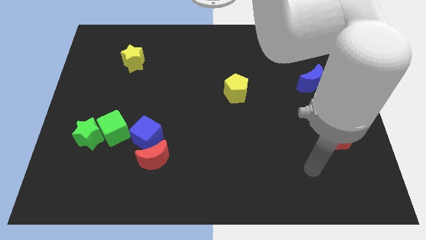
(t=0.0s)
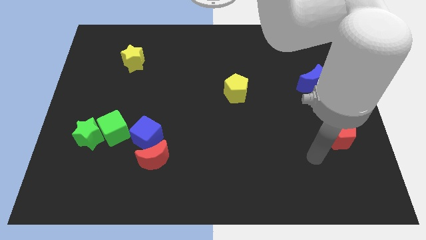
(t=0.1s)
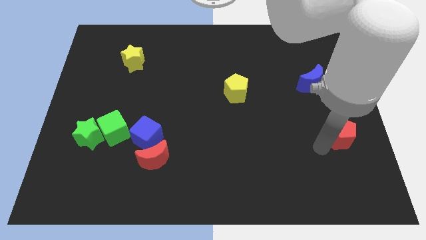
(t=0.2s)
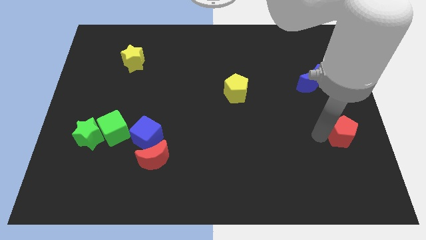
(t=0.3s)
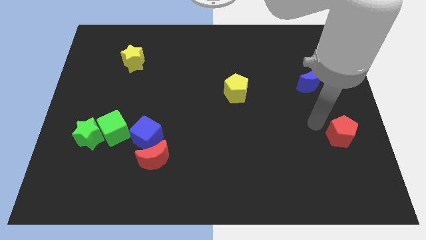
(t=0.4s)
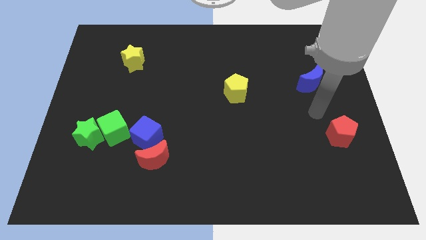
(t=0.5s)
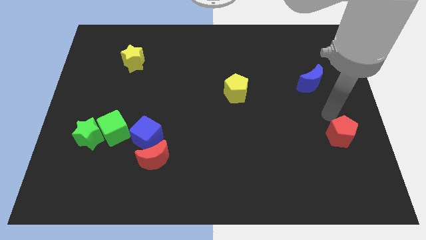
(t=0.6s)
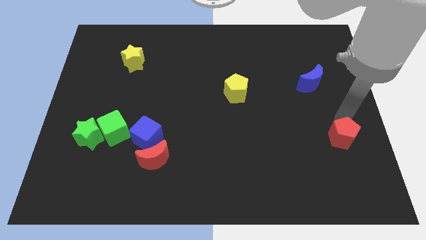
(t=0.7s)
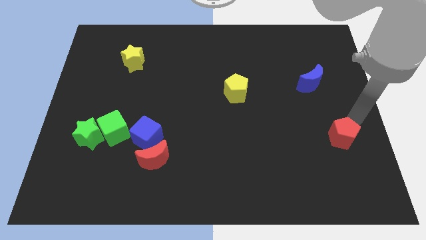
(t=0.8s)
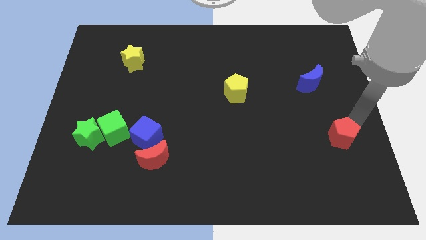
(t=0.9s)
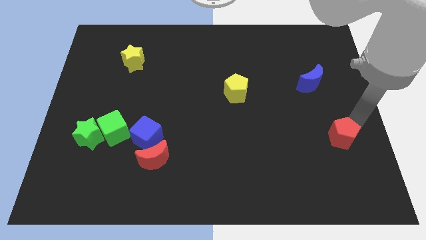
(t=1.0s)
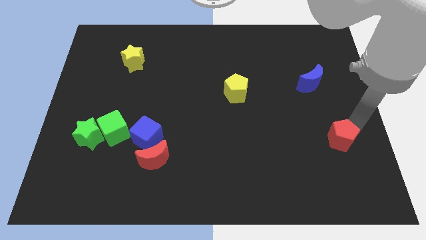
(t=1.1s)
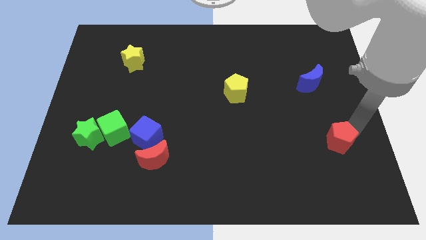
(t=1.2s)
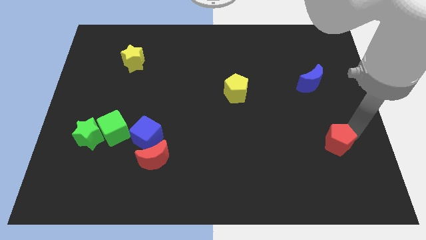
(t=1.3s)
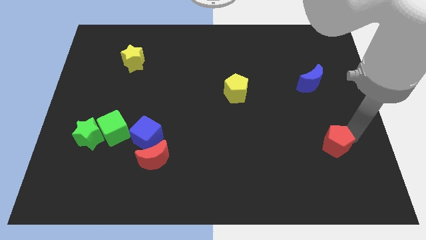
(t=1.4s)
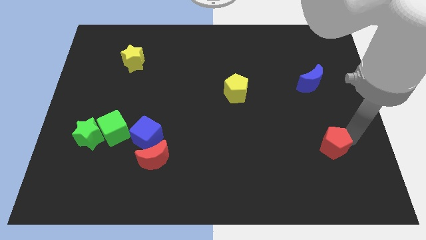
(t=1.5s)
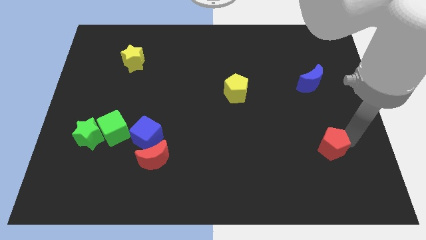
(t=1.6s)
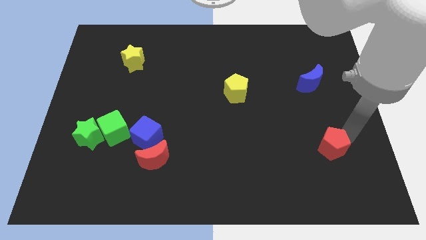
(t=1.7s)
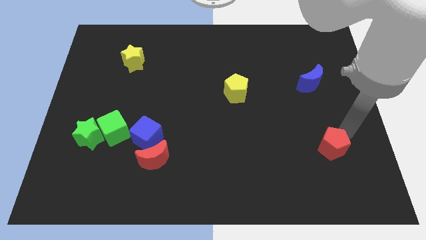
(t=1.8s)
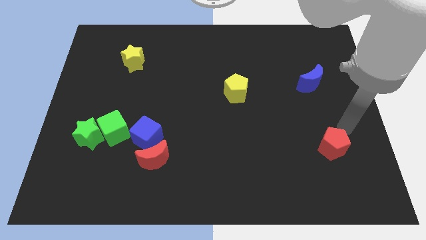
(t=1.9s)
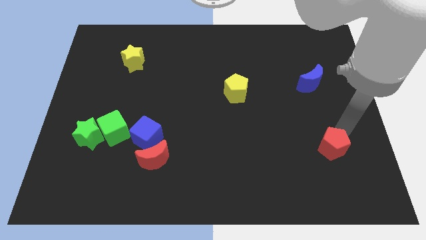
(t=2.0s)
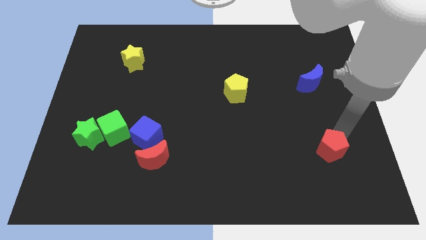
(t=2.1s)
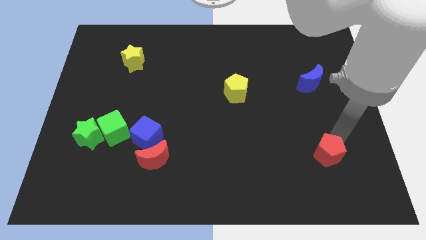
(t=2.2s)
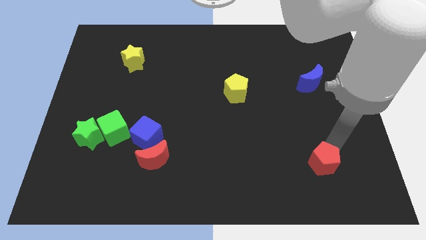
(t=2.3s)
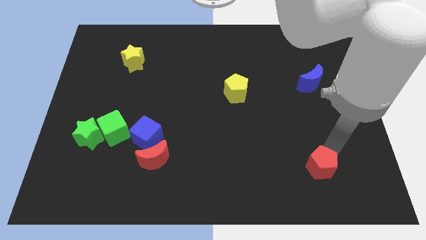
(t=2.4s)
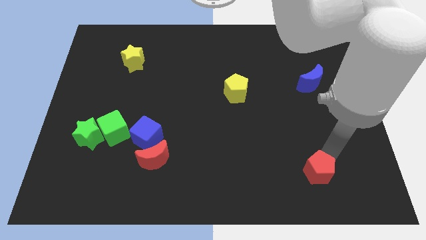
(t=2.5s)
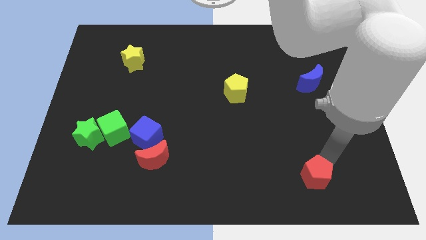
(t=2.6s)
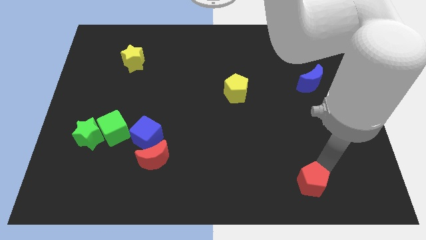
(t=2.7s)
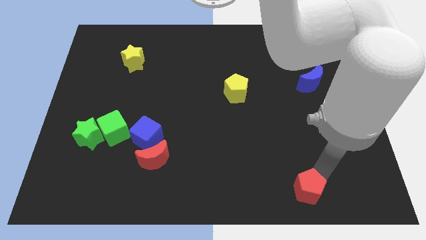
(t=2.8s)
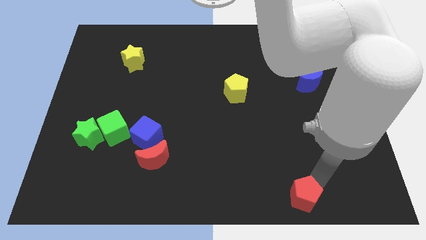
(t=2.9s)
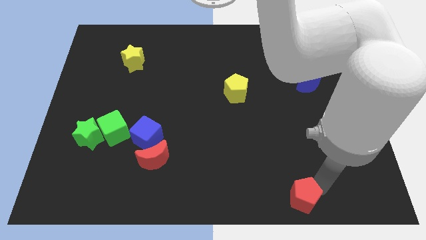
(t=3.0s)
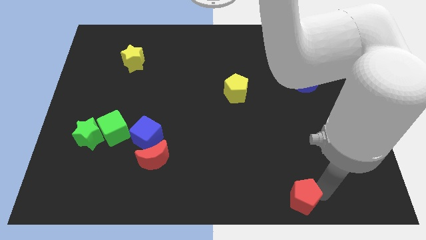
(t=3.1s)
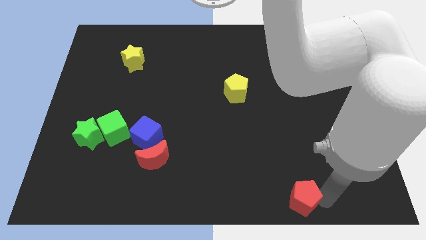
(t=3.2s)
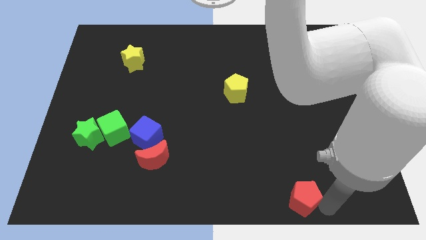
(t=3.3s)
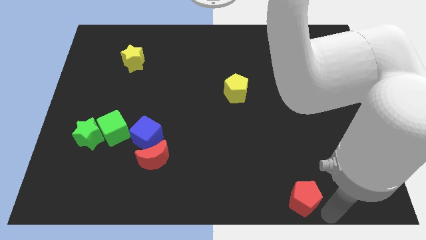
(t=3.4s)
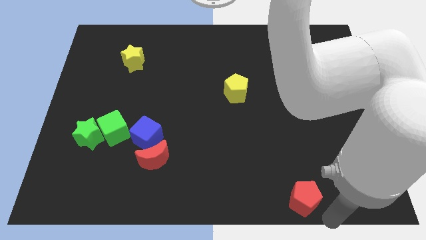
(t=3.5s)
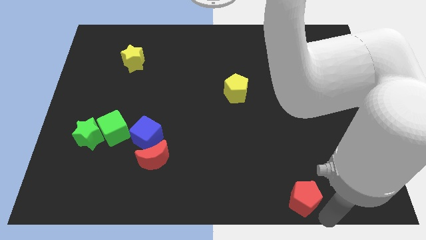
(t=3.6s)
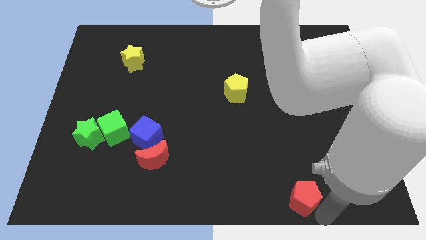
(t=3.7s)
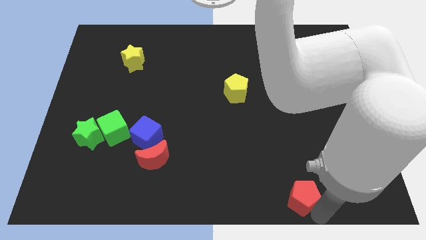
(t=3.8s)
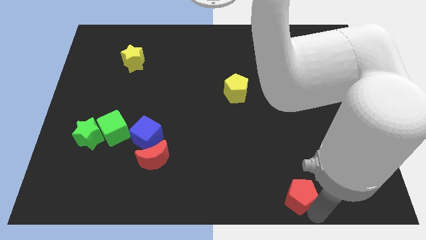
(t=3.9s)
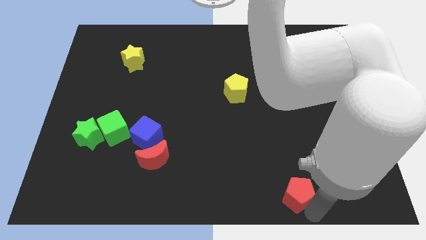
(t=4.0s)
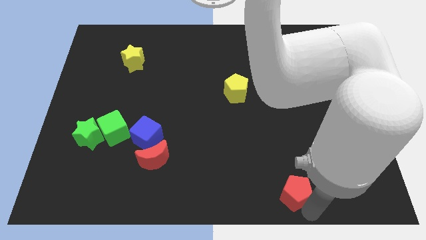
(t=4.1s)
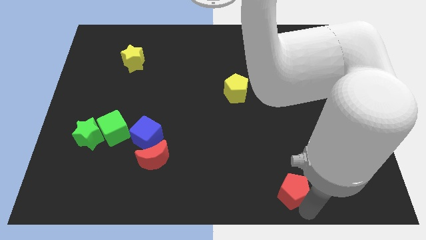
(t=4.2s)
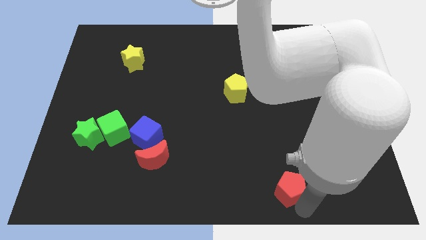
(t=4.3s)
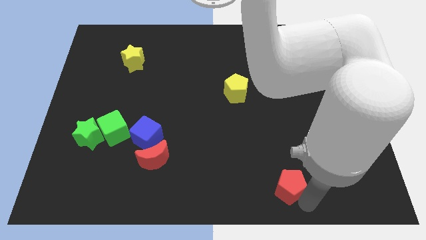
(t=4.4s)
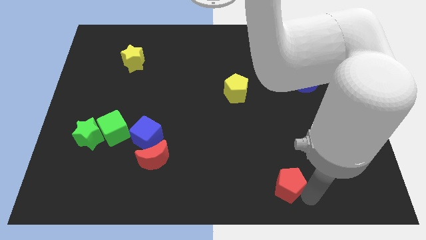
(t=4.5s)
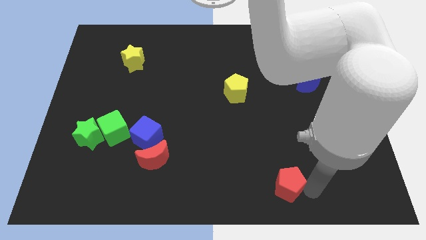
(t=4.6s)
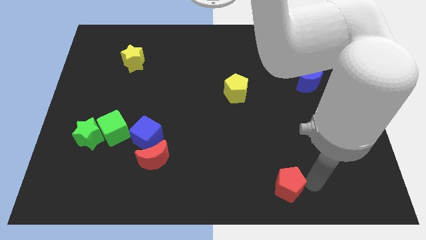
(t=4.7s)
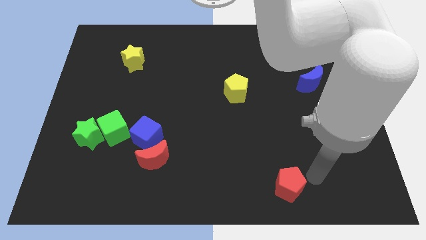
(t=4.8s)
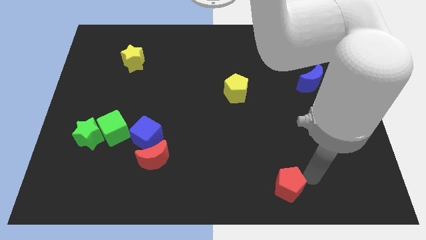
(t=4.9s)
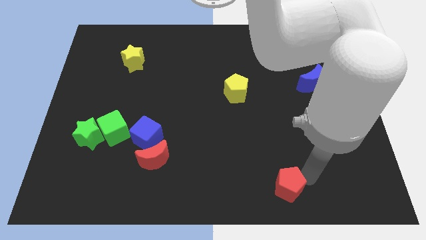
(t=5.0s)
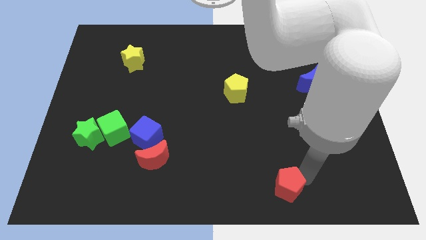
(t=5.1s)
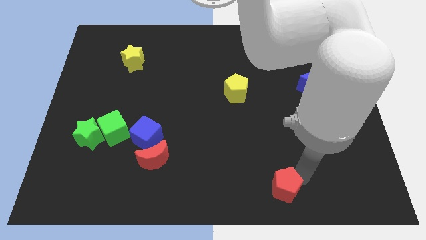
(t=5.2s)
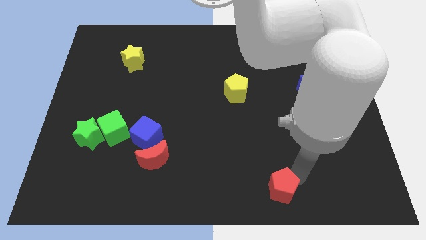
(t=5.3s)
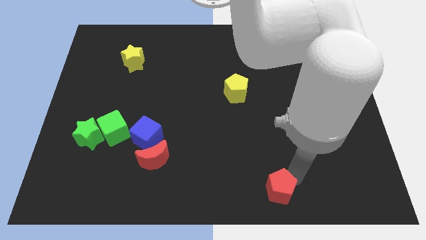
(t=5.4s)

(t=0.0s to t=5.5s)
move the red pentagon to the bottom
